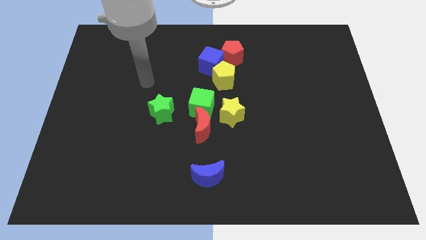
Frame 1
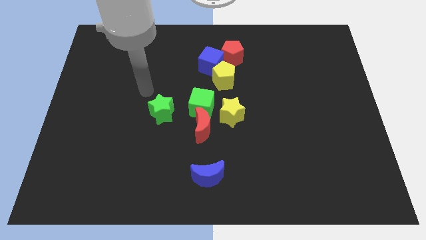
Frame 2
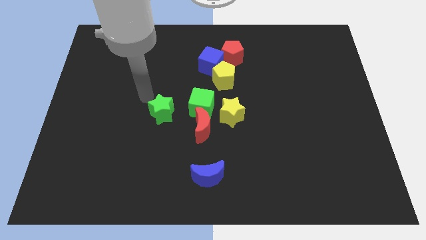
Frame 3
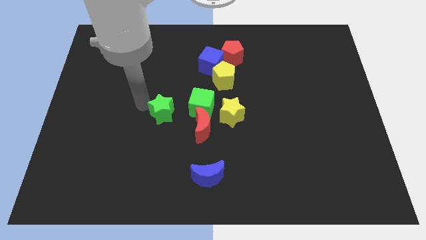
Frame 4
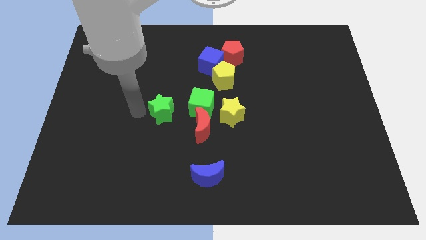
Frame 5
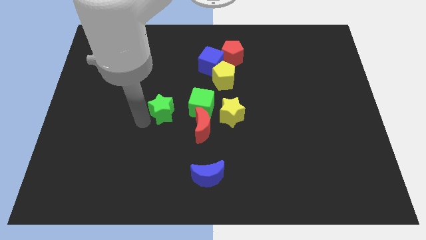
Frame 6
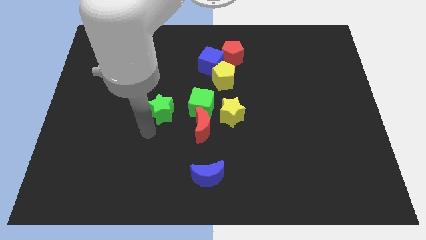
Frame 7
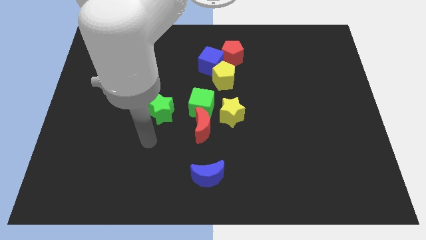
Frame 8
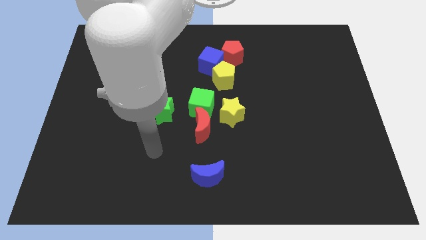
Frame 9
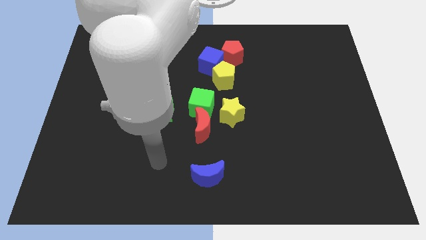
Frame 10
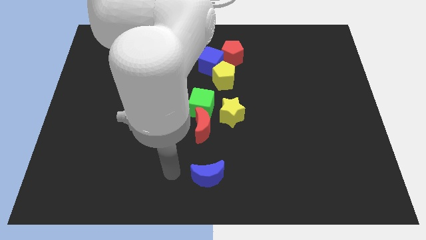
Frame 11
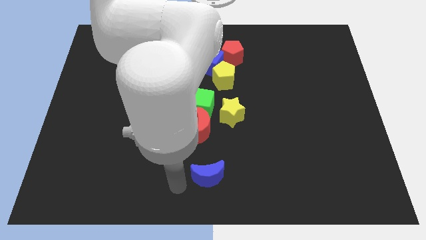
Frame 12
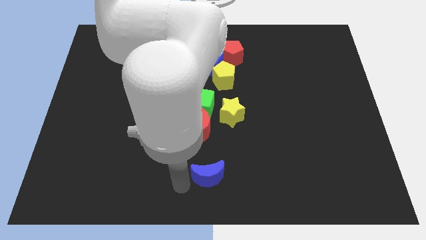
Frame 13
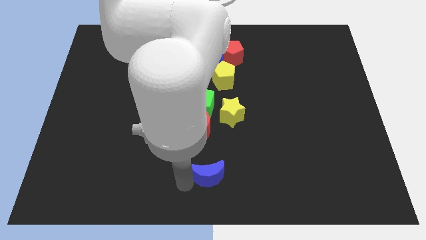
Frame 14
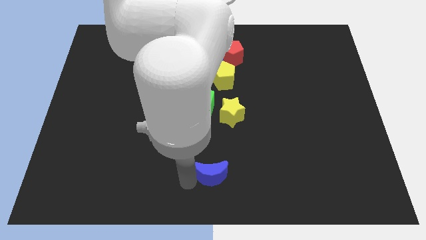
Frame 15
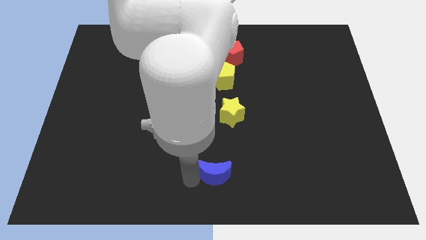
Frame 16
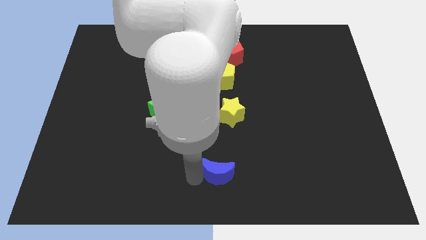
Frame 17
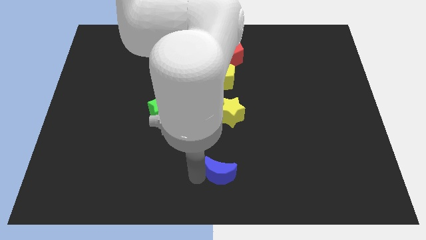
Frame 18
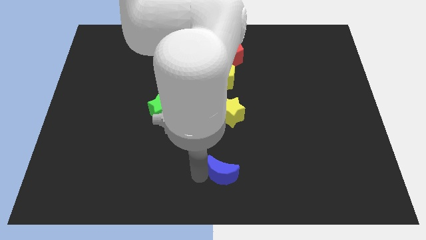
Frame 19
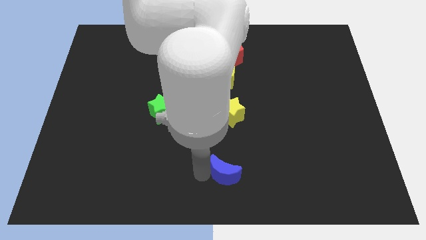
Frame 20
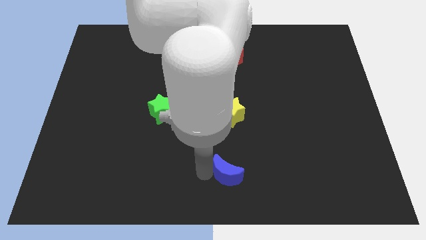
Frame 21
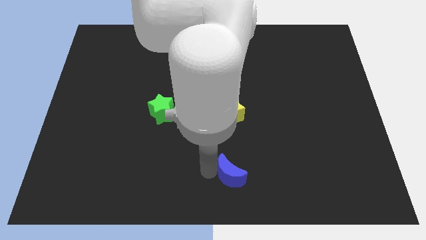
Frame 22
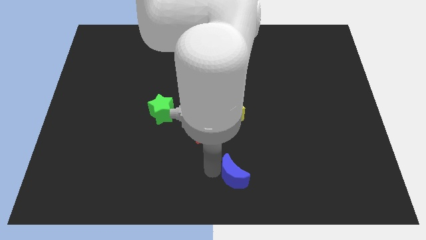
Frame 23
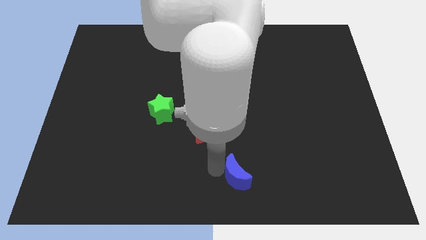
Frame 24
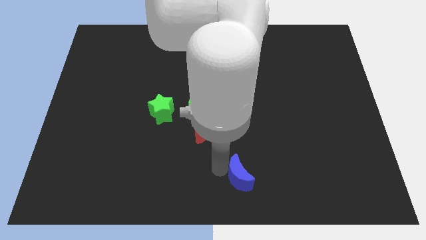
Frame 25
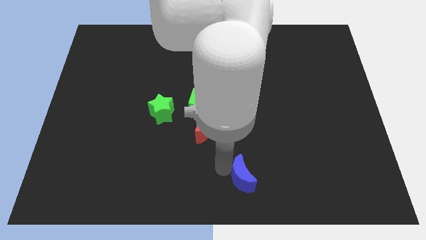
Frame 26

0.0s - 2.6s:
push the blue moon right a little

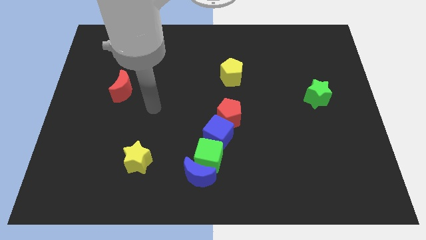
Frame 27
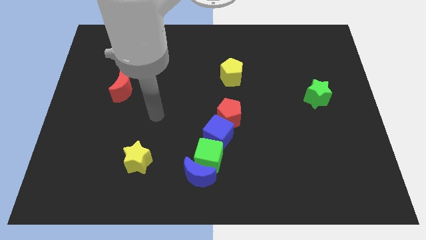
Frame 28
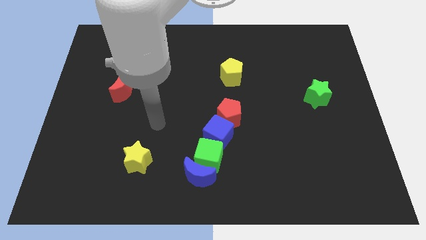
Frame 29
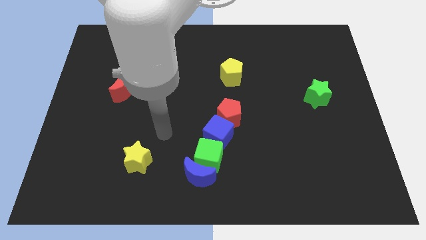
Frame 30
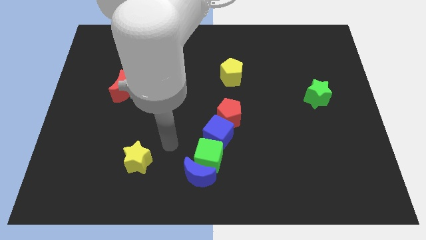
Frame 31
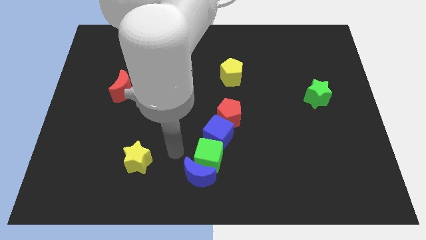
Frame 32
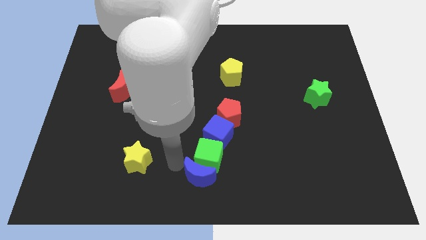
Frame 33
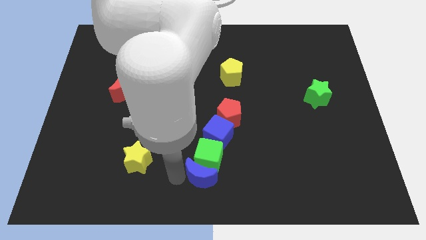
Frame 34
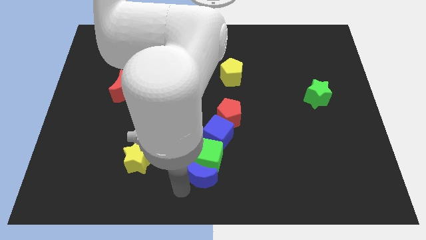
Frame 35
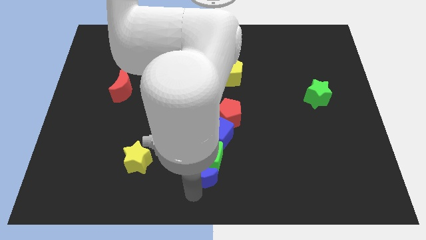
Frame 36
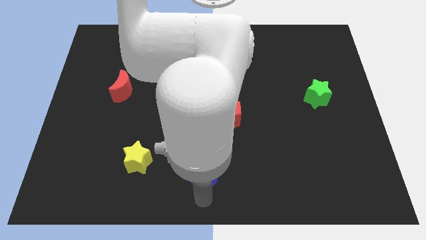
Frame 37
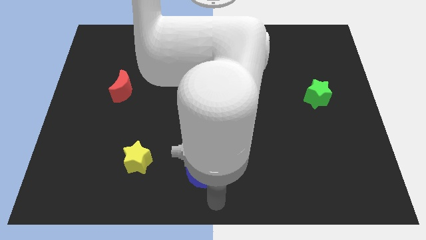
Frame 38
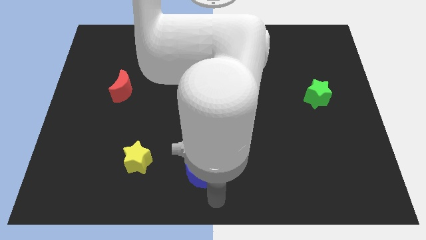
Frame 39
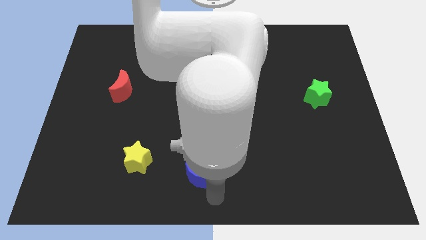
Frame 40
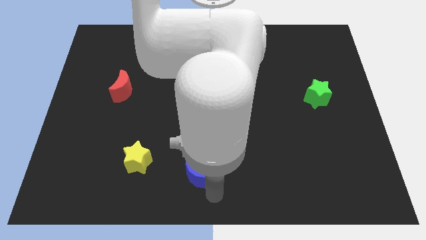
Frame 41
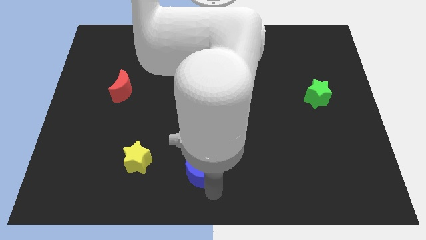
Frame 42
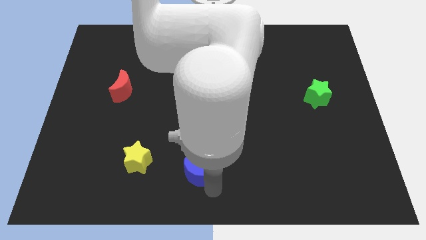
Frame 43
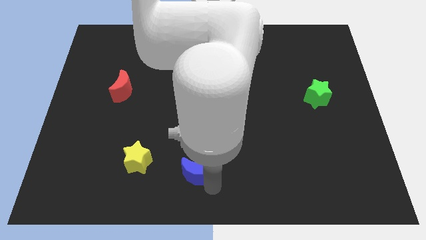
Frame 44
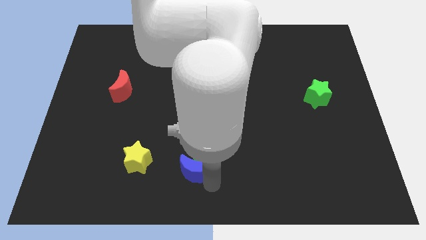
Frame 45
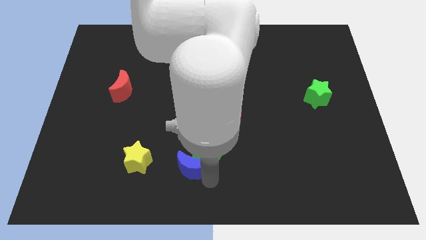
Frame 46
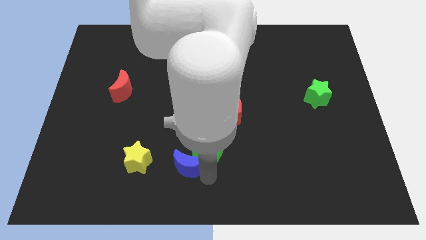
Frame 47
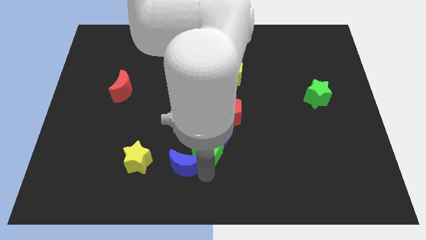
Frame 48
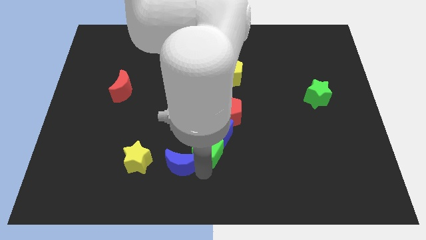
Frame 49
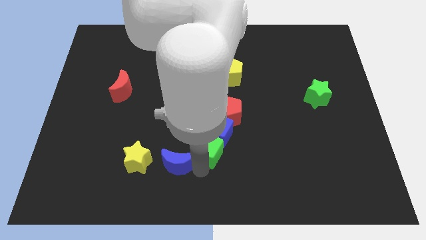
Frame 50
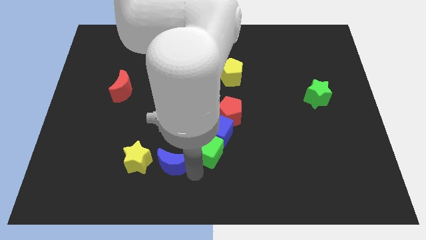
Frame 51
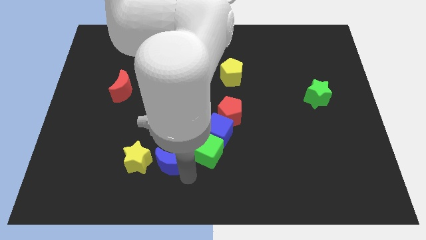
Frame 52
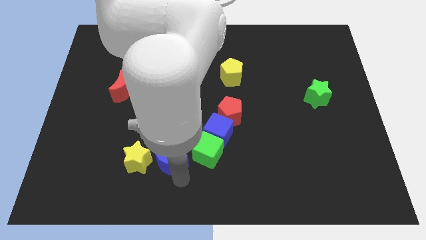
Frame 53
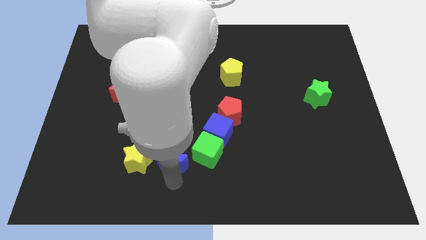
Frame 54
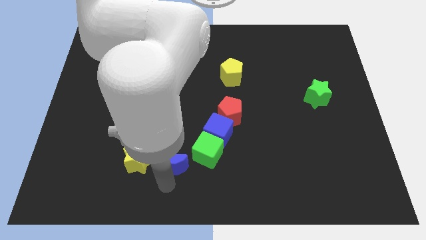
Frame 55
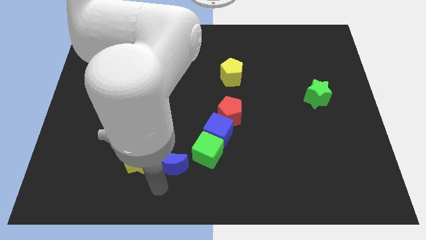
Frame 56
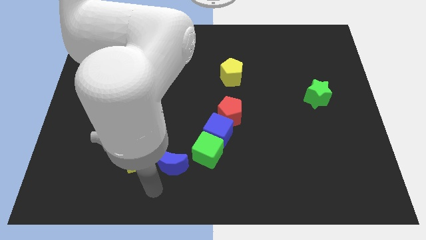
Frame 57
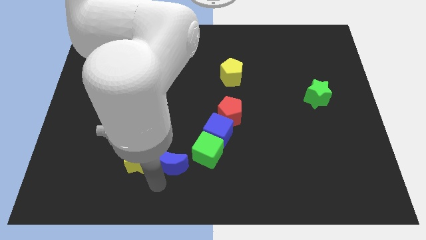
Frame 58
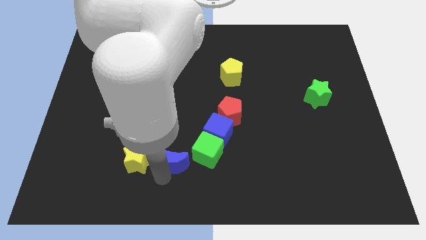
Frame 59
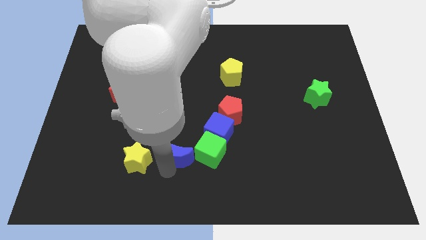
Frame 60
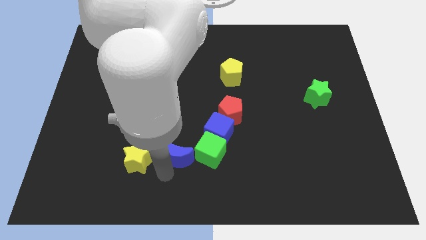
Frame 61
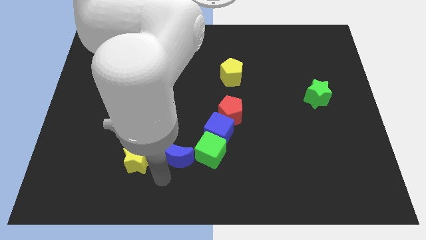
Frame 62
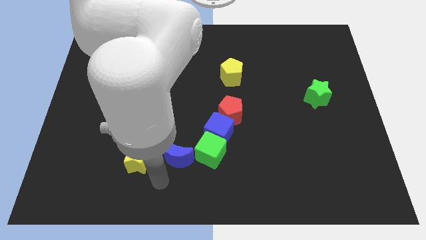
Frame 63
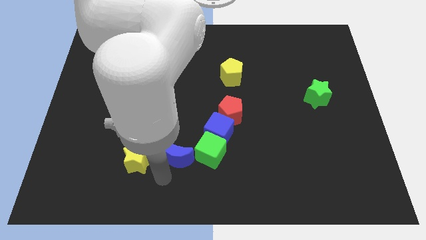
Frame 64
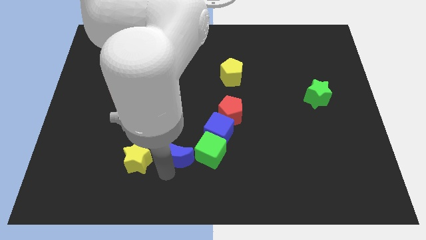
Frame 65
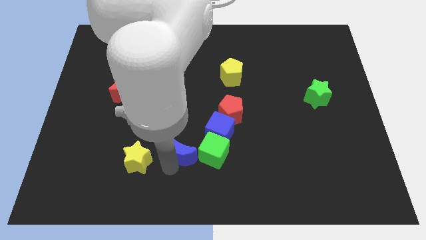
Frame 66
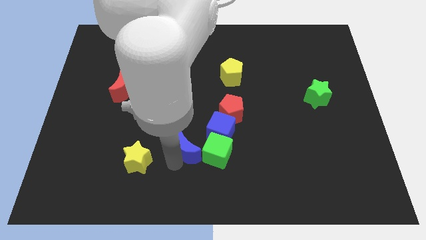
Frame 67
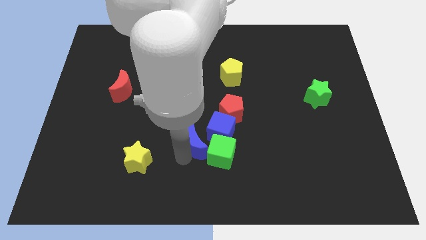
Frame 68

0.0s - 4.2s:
move the blue moon upwards a bit

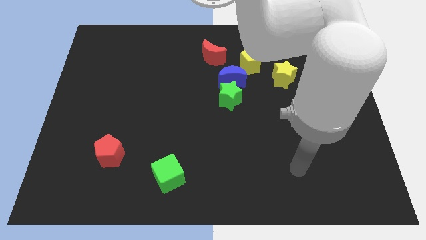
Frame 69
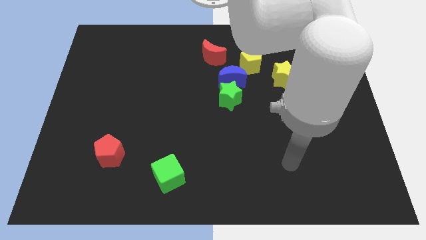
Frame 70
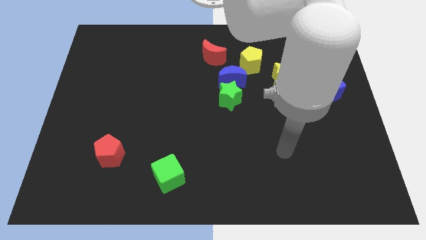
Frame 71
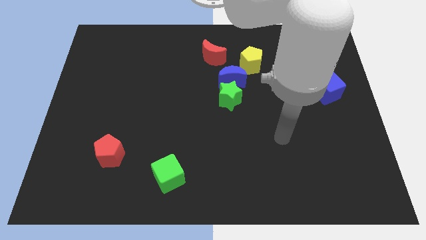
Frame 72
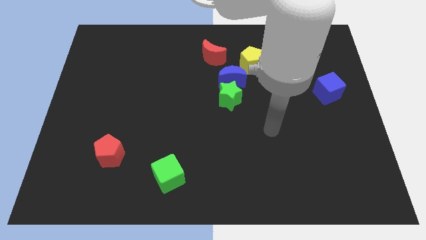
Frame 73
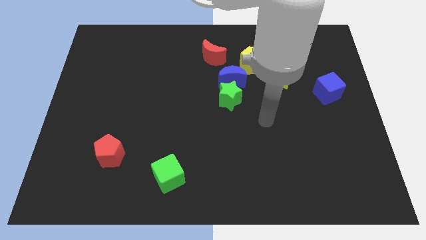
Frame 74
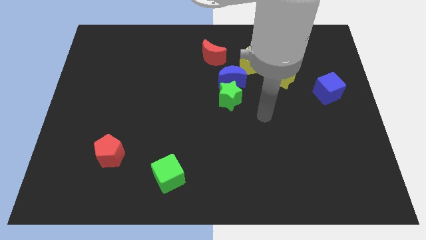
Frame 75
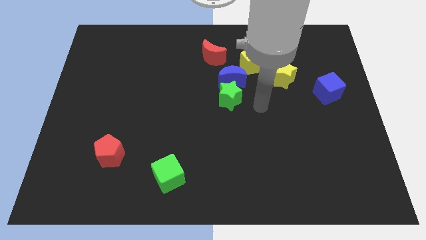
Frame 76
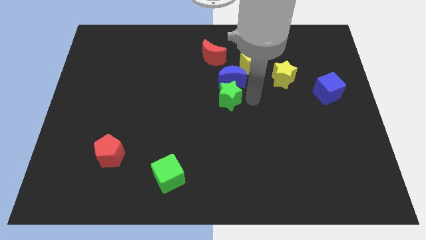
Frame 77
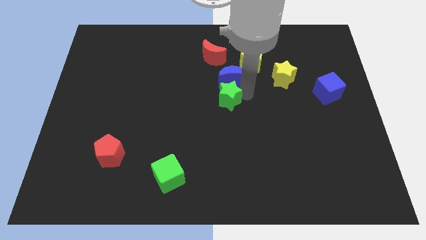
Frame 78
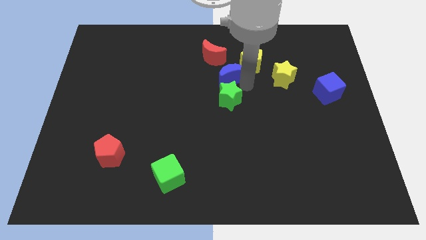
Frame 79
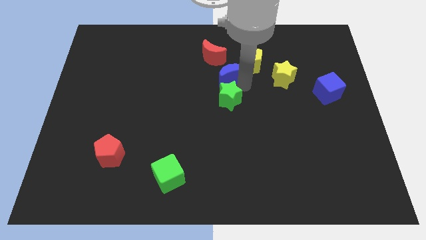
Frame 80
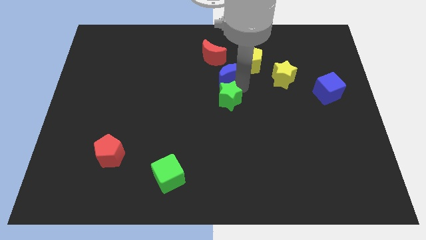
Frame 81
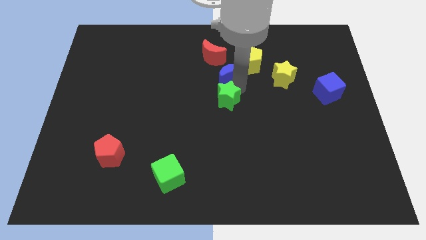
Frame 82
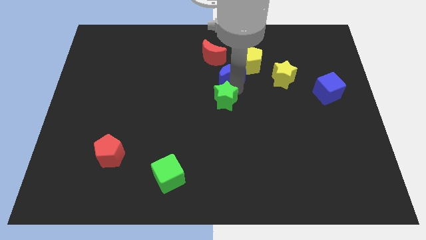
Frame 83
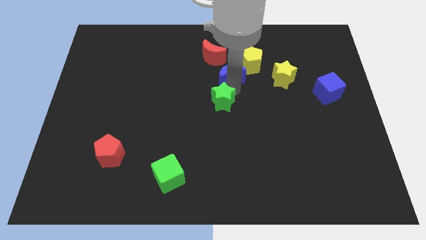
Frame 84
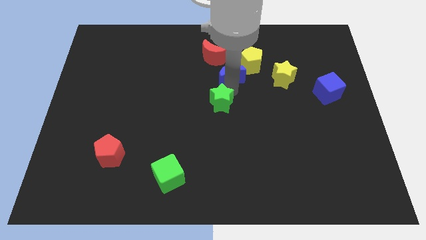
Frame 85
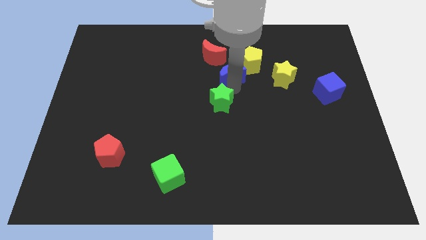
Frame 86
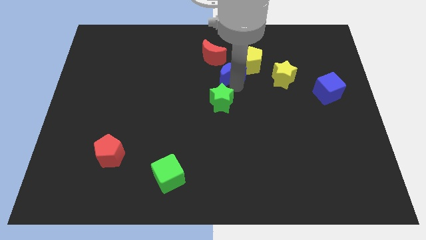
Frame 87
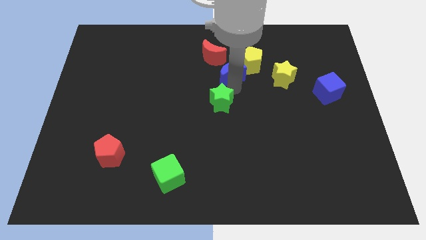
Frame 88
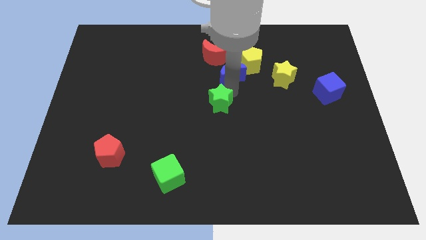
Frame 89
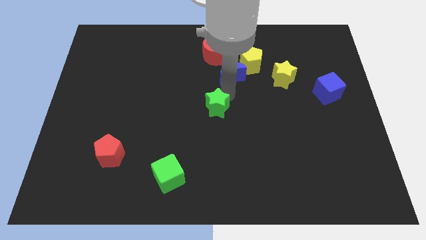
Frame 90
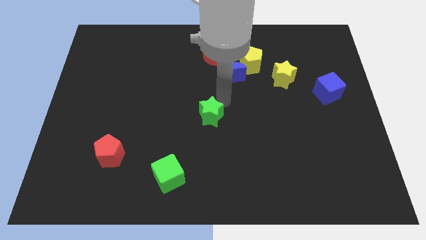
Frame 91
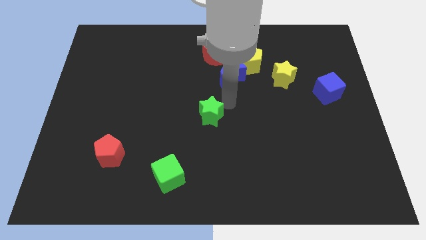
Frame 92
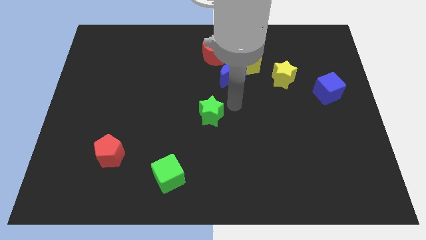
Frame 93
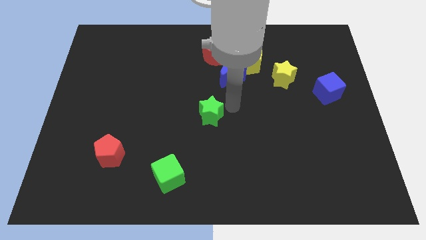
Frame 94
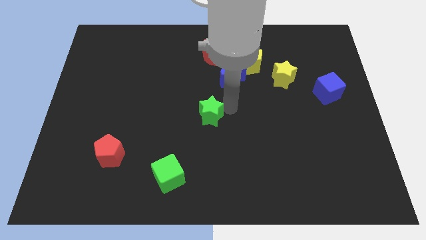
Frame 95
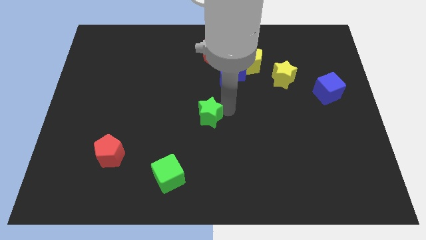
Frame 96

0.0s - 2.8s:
slightly move the green star down and to the left
